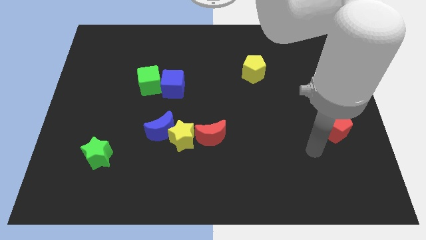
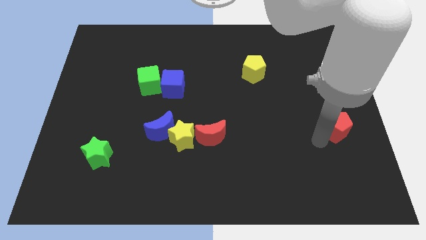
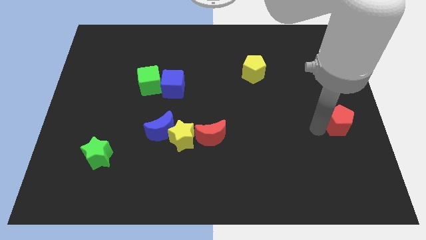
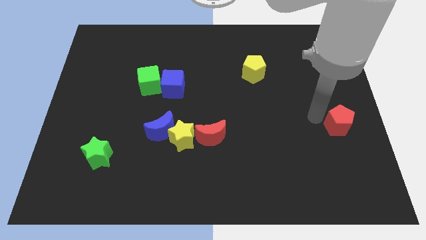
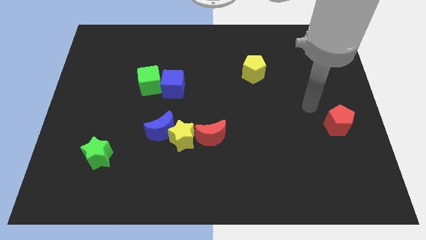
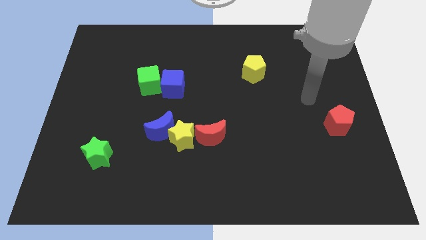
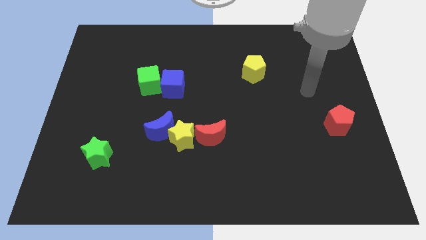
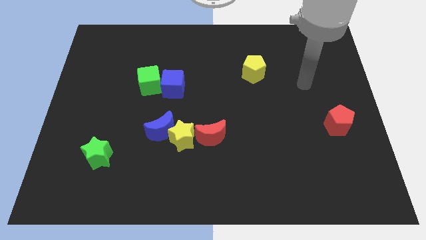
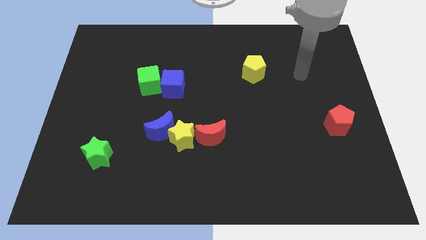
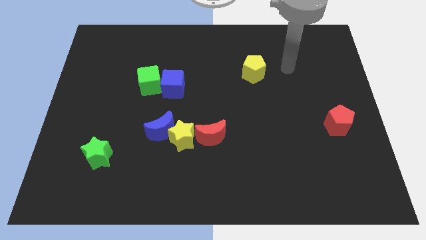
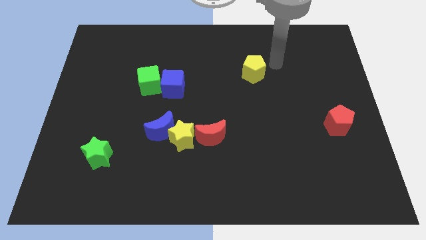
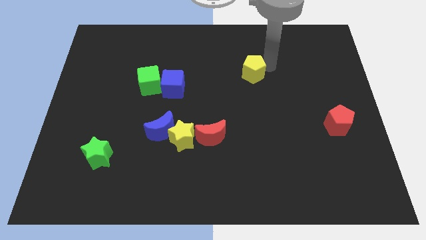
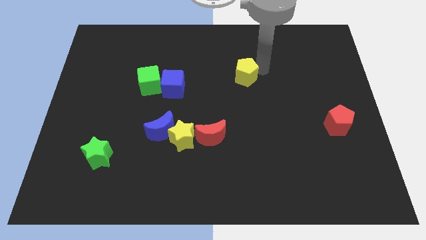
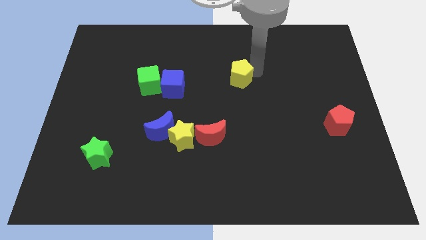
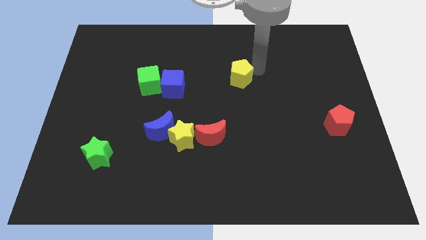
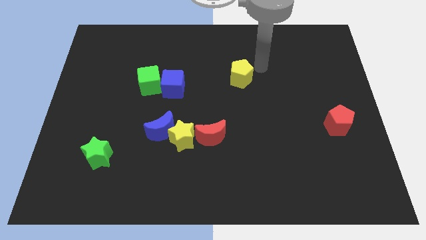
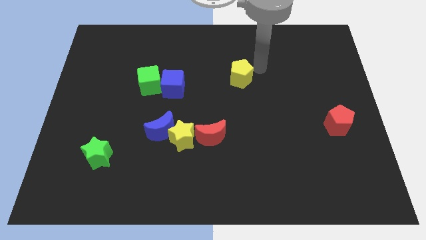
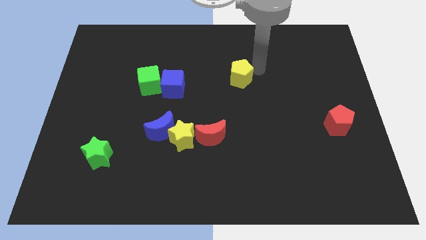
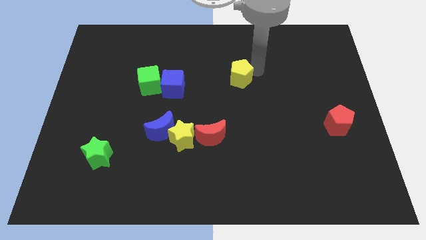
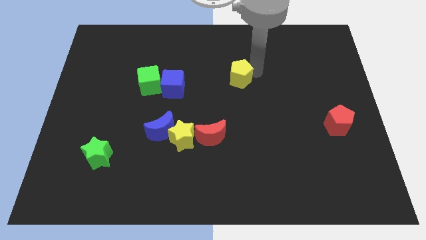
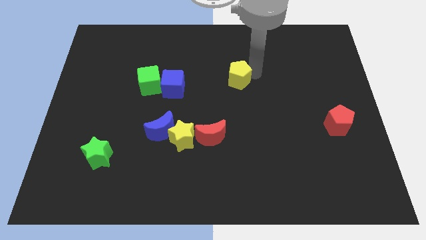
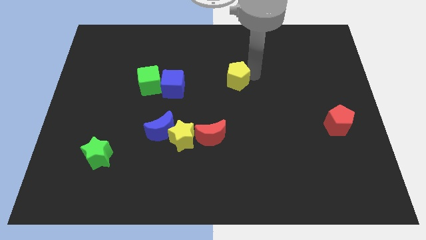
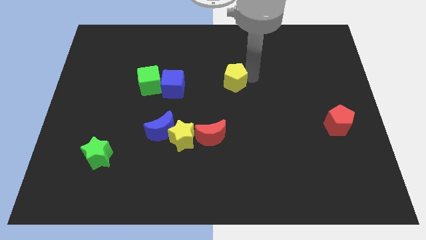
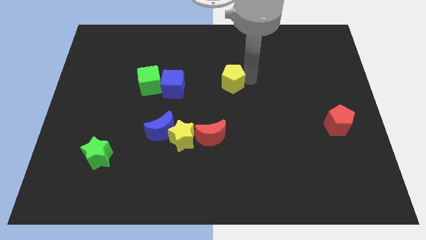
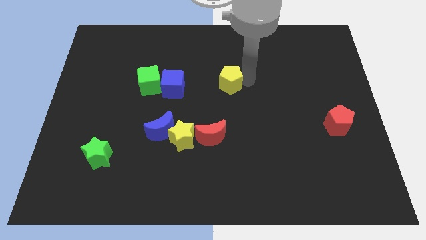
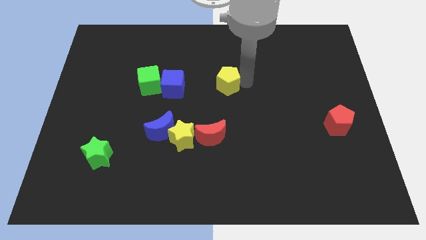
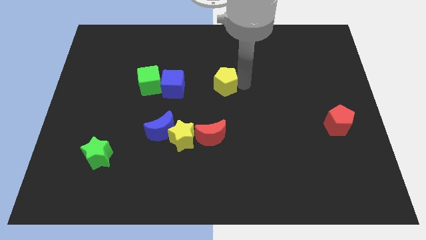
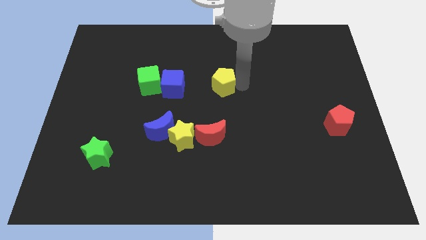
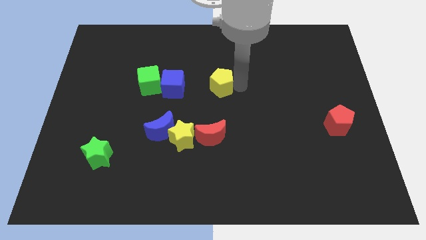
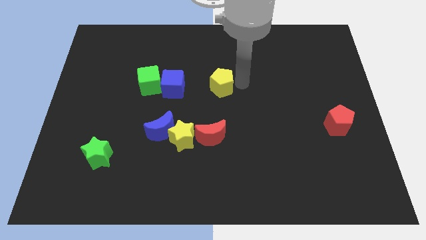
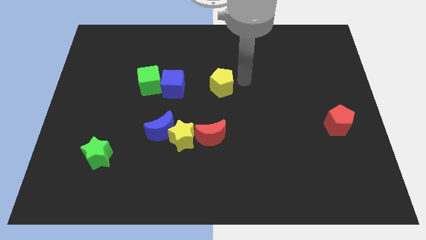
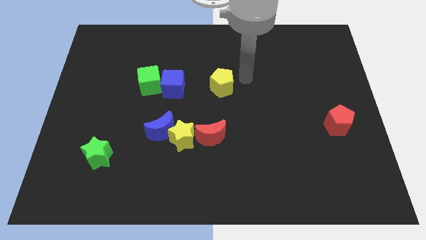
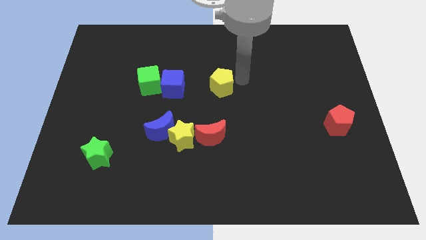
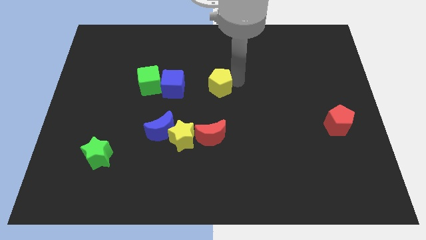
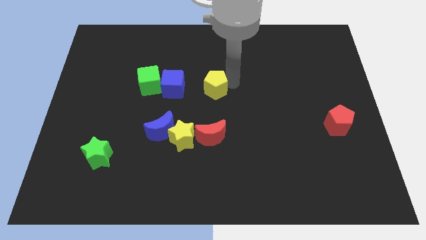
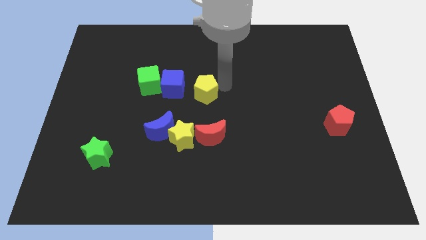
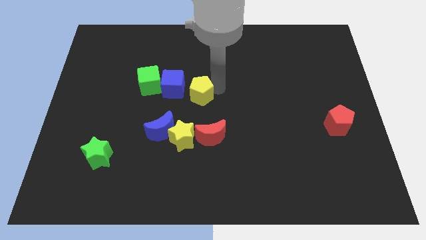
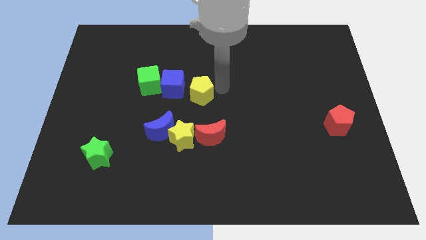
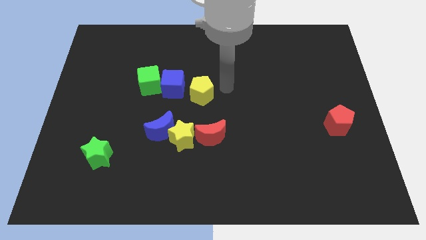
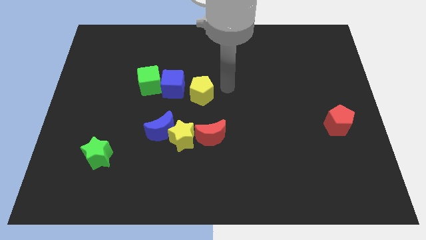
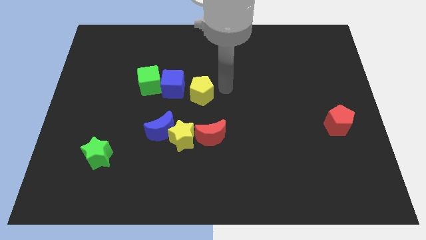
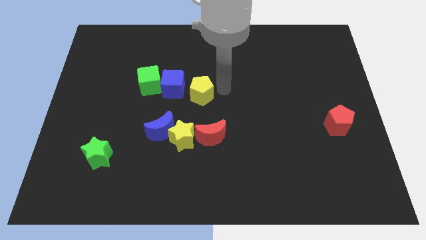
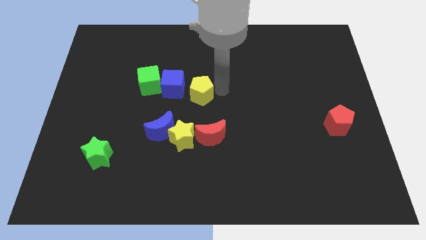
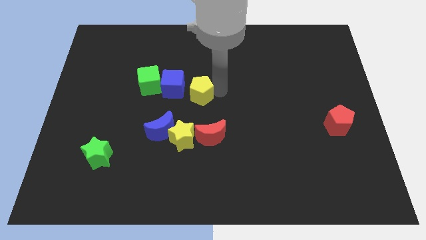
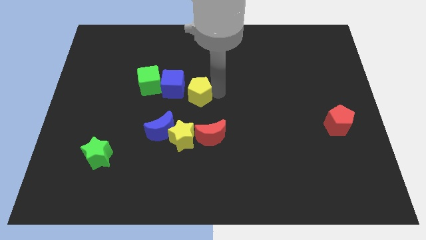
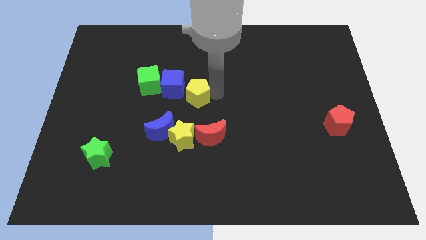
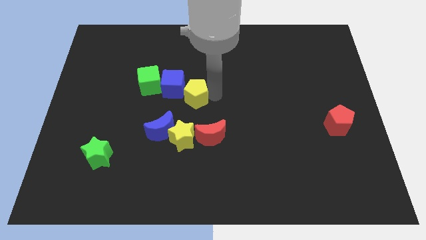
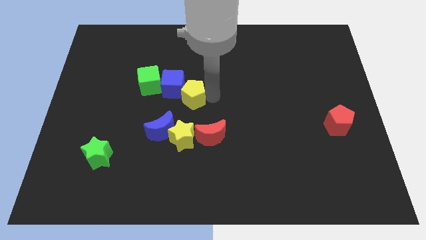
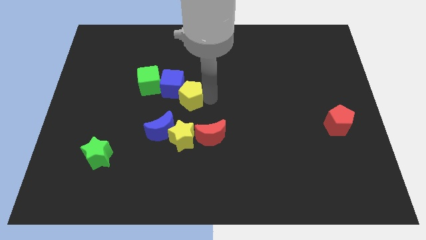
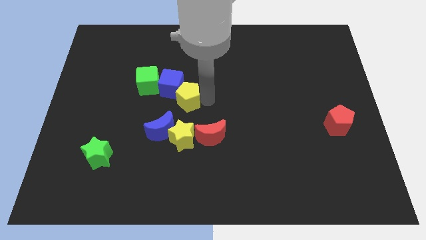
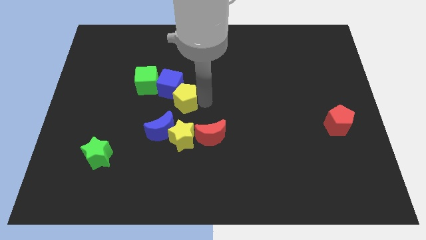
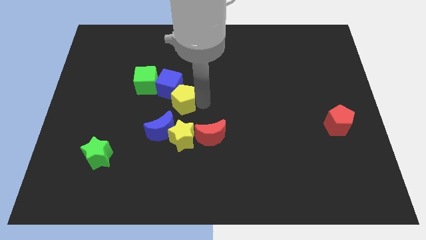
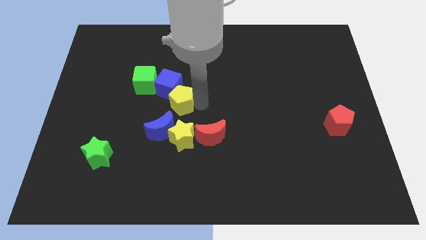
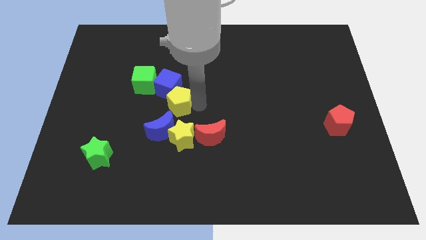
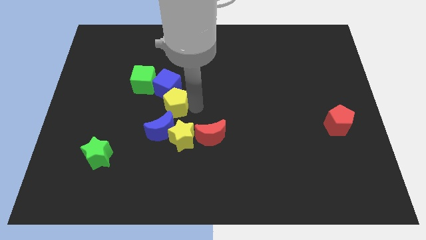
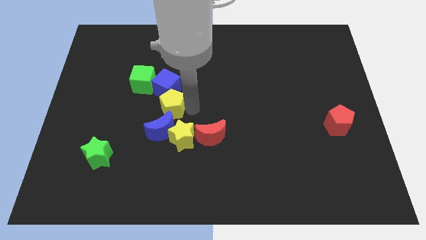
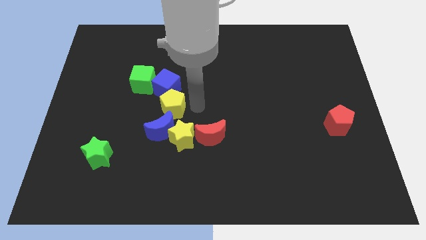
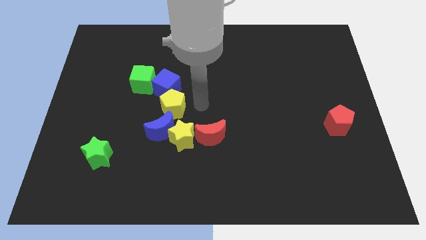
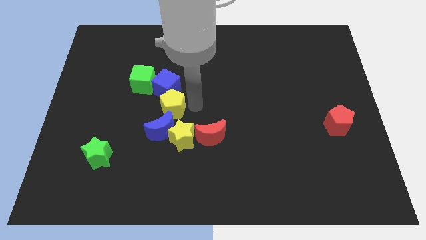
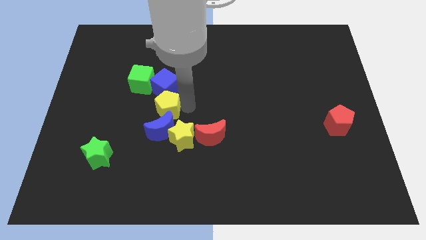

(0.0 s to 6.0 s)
slide the yellow pentagon to the top left of the blue moon

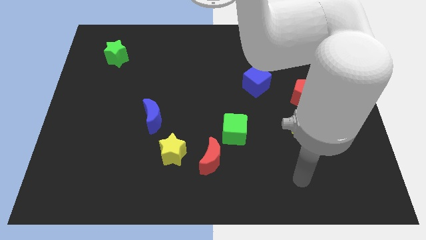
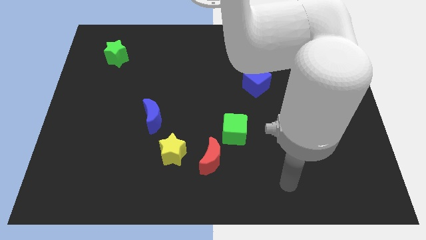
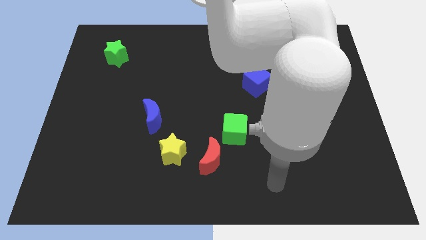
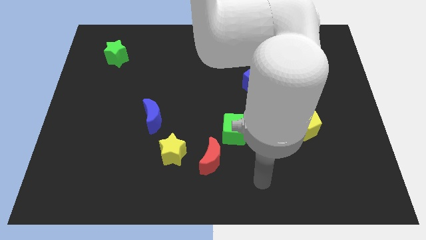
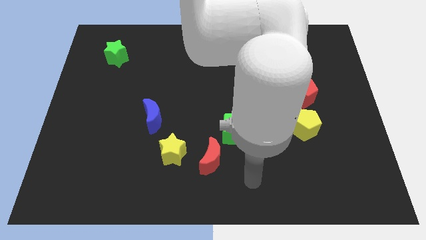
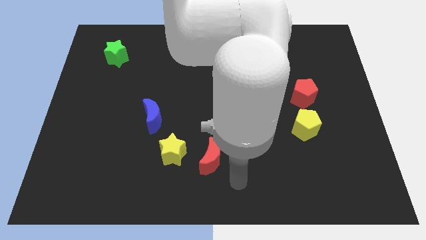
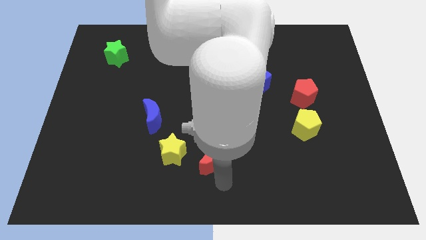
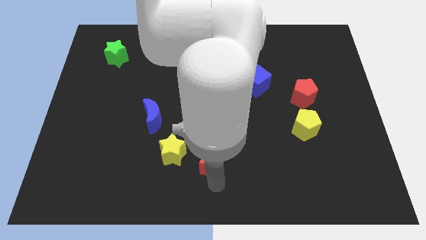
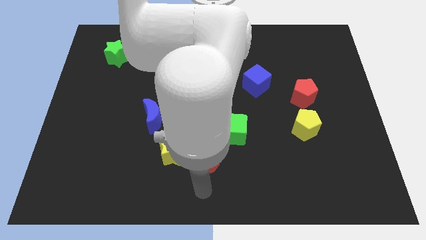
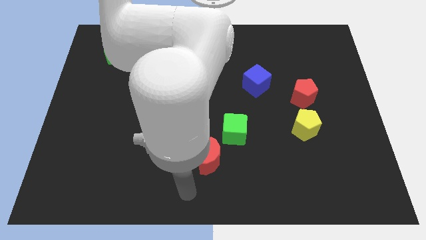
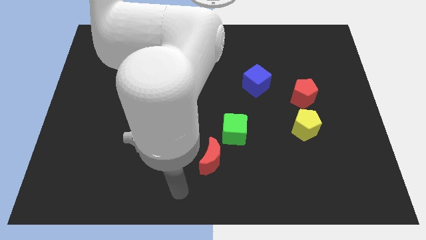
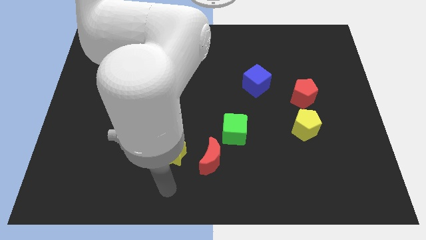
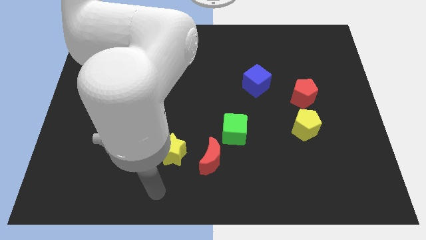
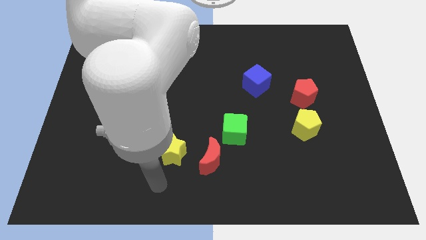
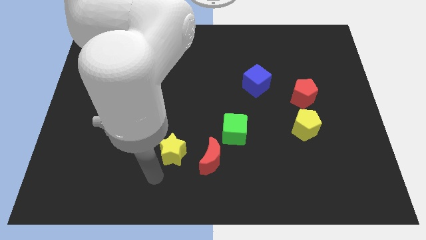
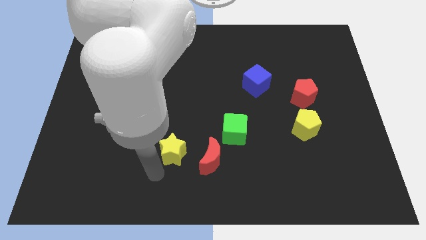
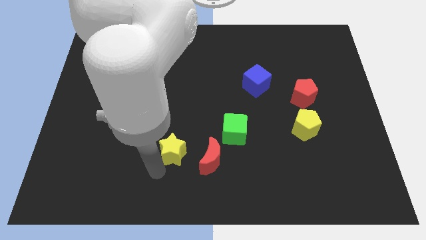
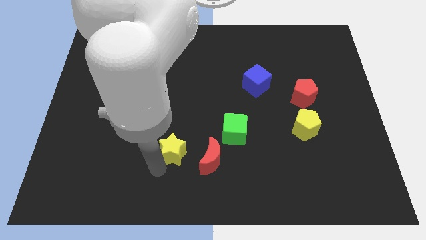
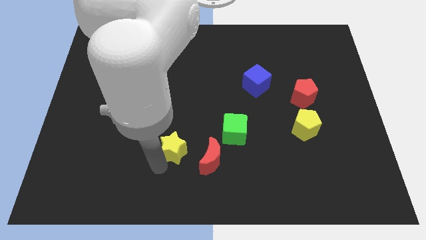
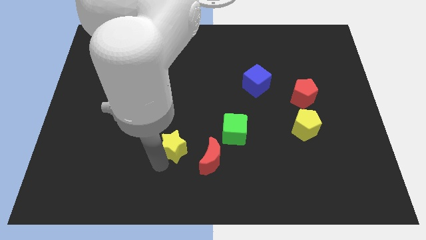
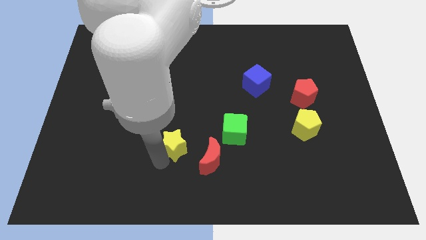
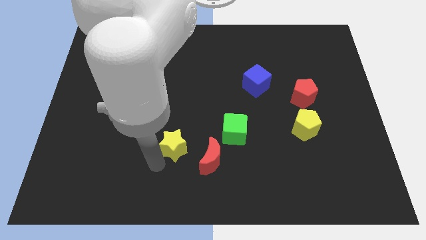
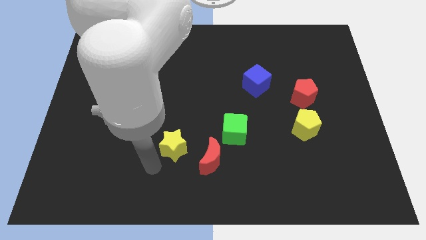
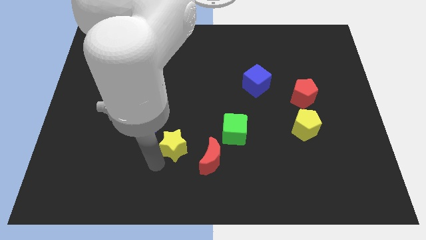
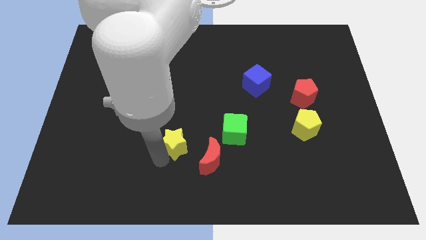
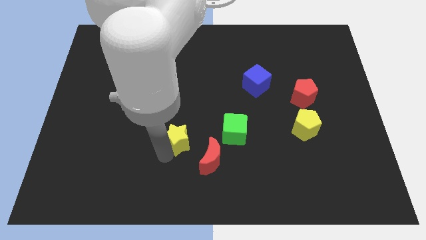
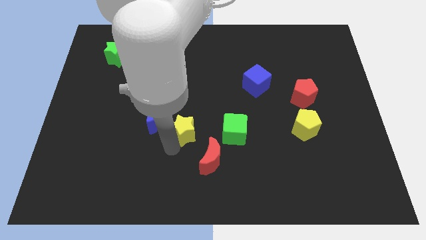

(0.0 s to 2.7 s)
push the yellow star to the right side of the blue moon
